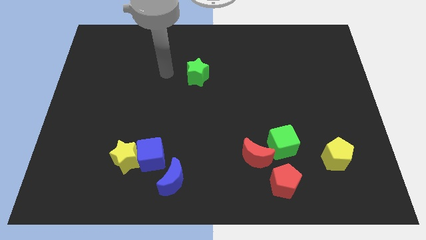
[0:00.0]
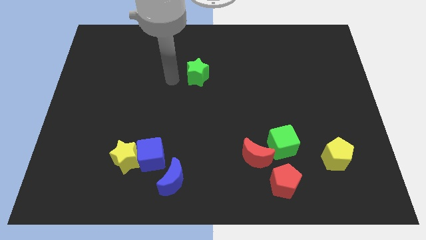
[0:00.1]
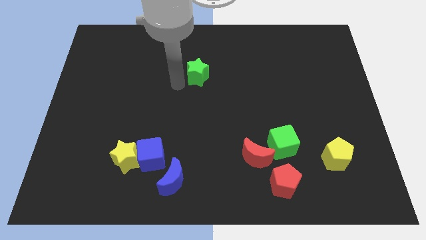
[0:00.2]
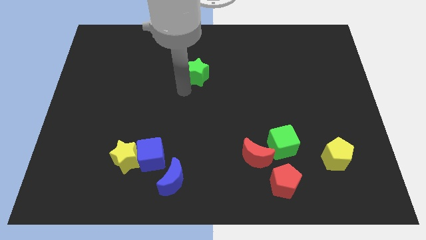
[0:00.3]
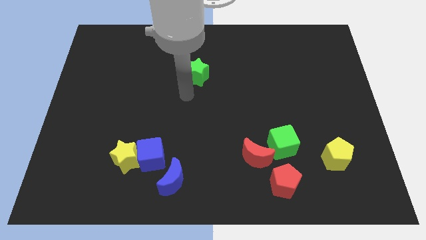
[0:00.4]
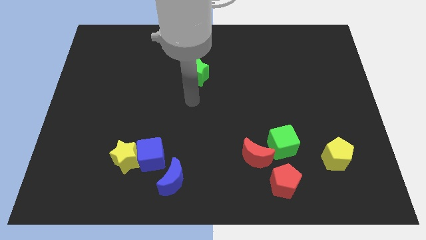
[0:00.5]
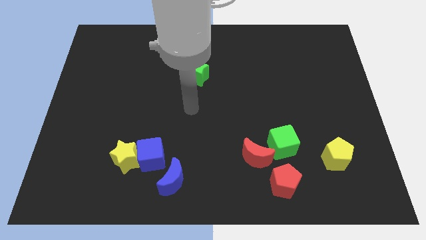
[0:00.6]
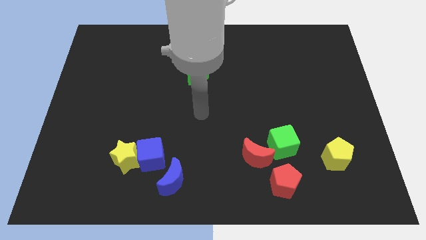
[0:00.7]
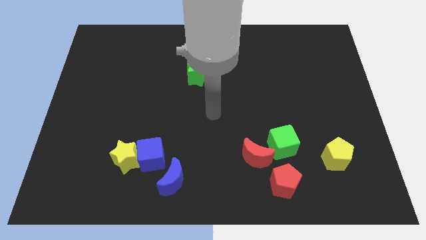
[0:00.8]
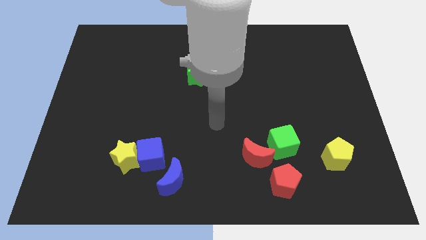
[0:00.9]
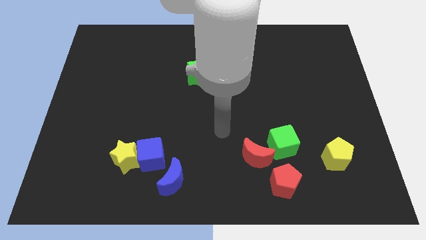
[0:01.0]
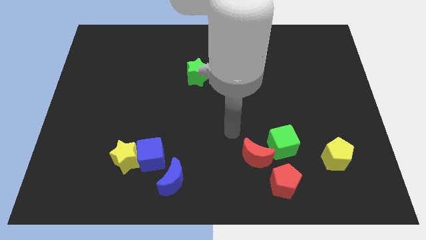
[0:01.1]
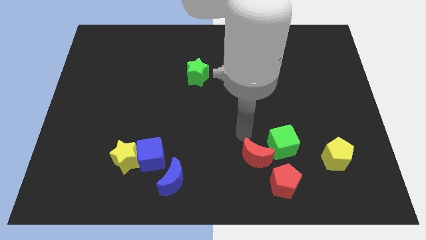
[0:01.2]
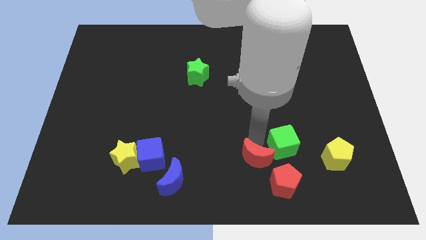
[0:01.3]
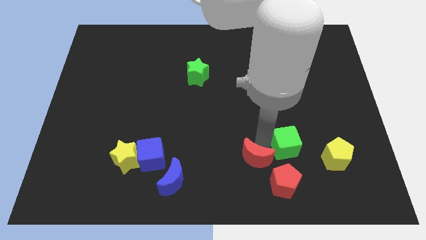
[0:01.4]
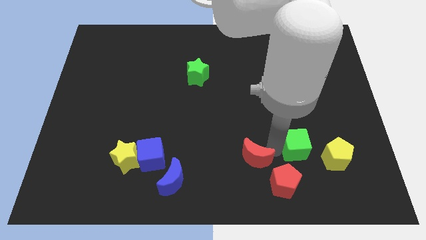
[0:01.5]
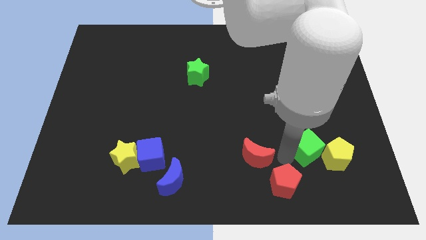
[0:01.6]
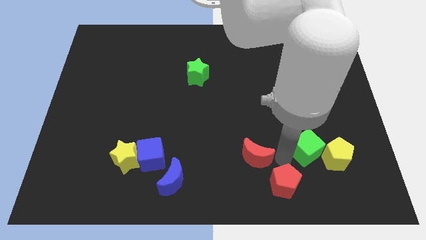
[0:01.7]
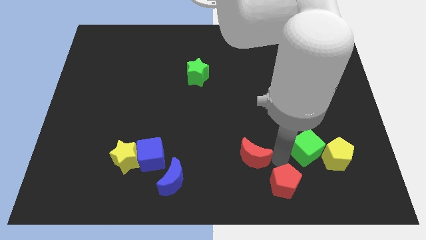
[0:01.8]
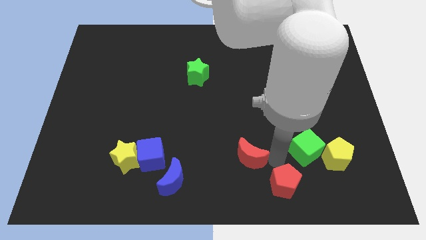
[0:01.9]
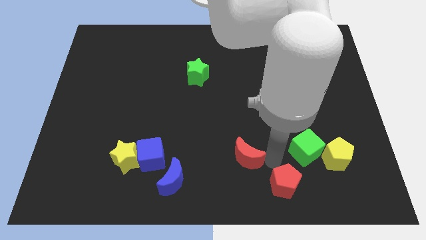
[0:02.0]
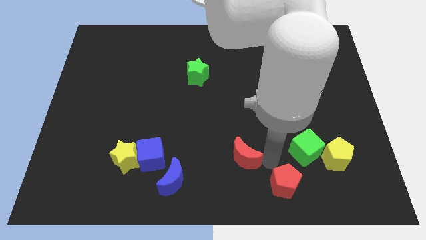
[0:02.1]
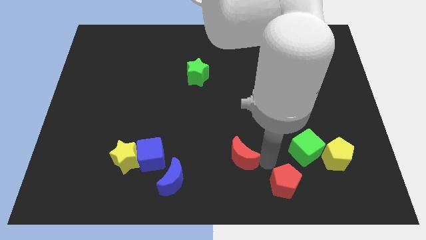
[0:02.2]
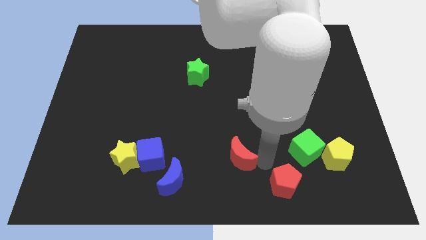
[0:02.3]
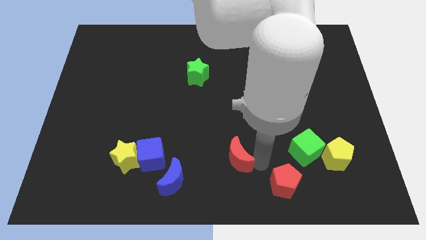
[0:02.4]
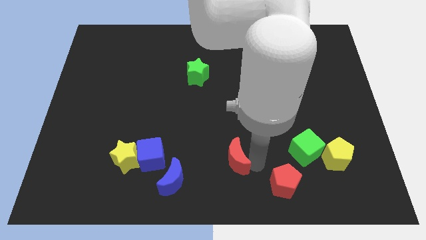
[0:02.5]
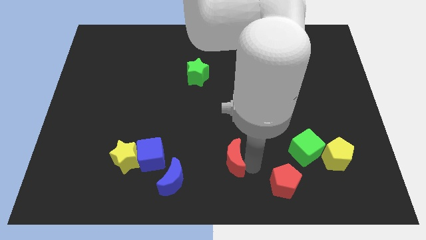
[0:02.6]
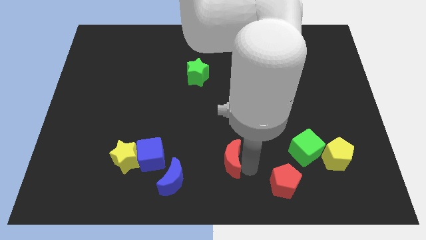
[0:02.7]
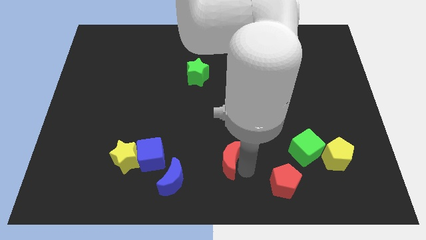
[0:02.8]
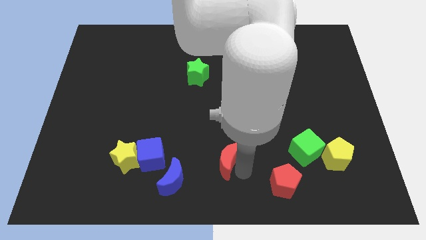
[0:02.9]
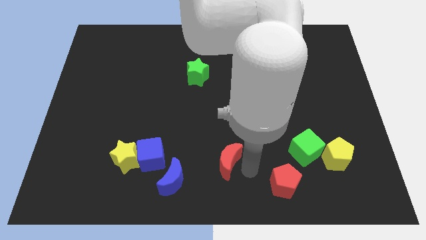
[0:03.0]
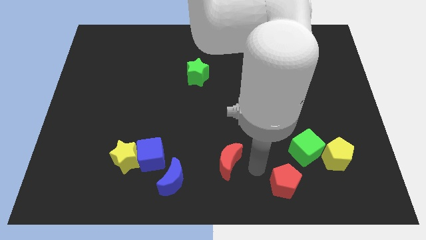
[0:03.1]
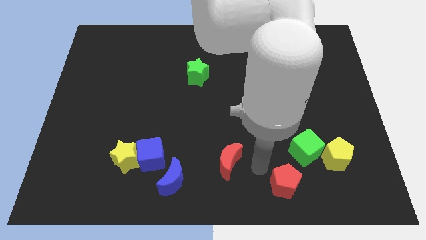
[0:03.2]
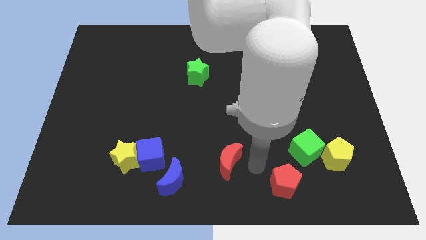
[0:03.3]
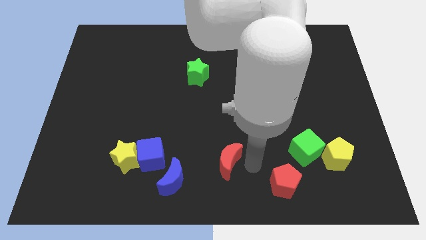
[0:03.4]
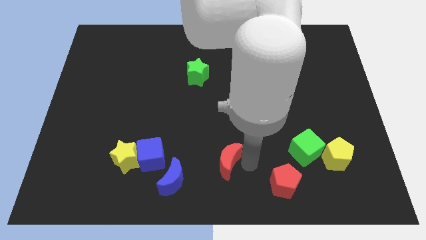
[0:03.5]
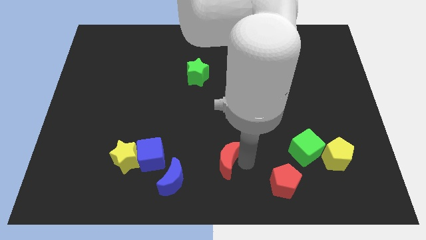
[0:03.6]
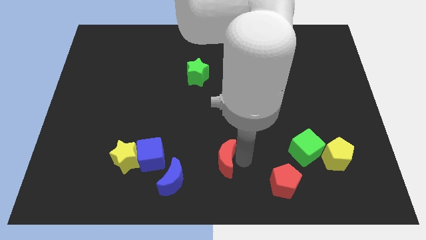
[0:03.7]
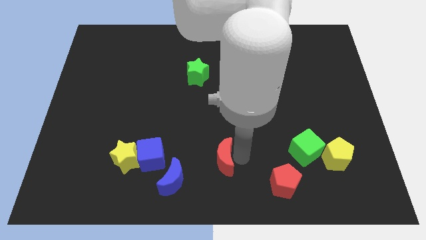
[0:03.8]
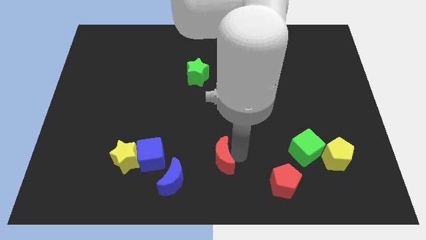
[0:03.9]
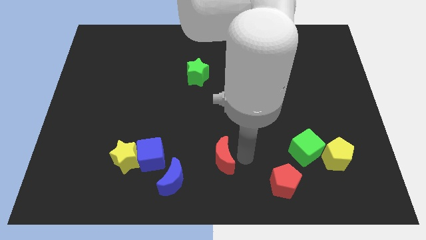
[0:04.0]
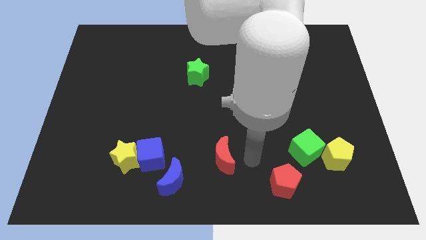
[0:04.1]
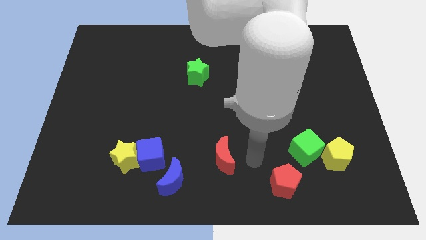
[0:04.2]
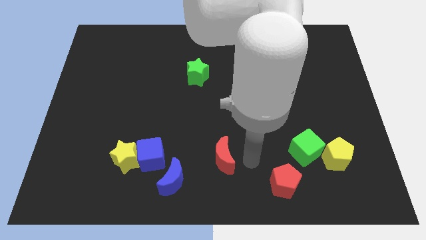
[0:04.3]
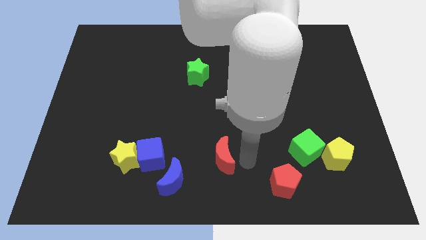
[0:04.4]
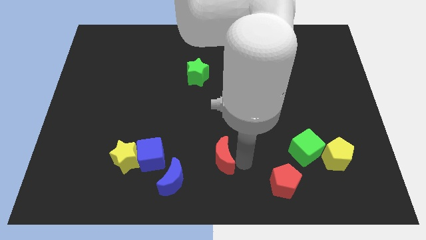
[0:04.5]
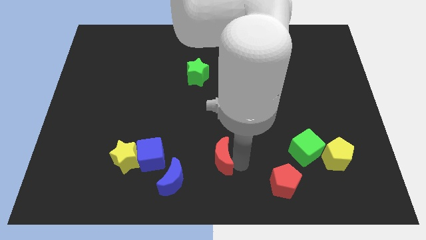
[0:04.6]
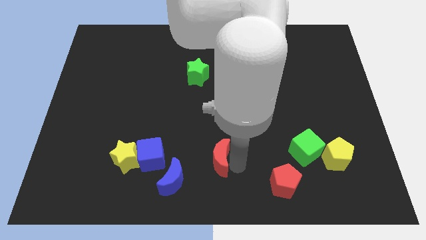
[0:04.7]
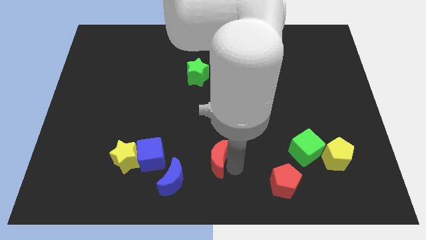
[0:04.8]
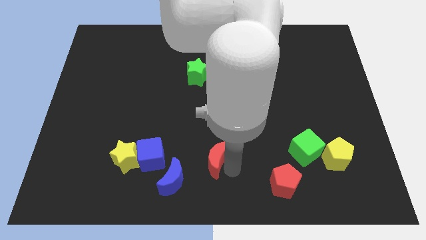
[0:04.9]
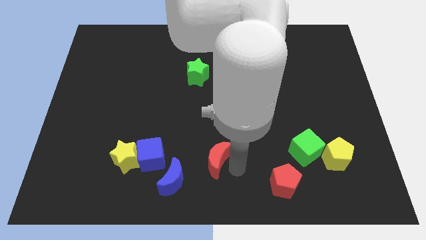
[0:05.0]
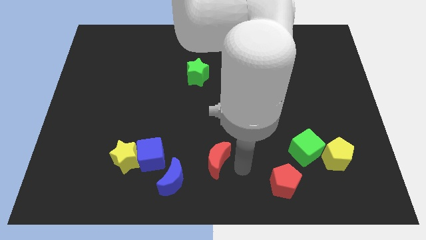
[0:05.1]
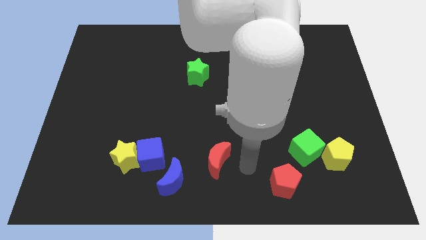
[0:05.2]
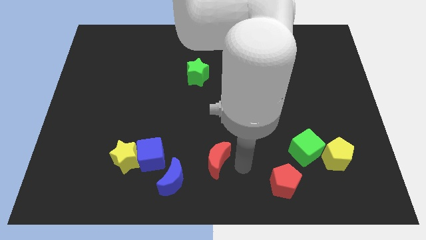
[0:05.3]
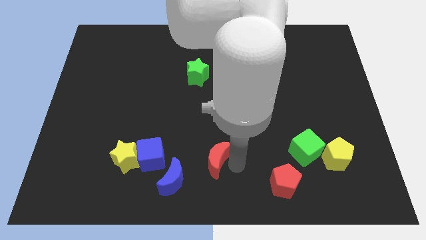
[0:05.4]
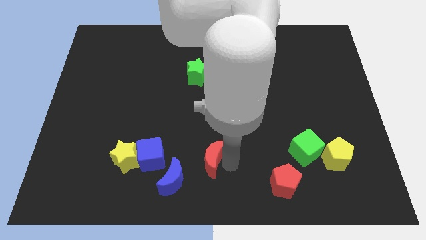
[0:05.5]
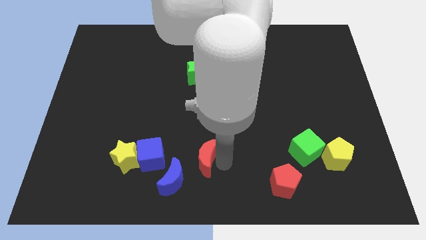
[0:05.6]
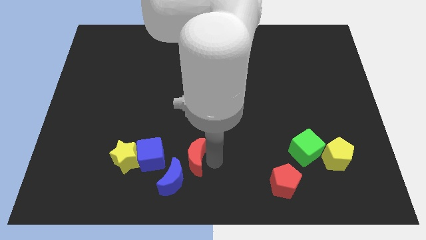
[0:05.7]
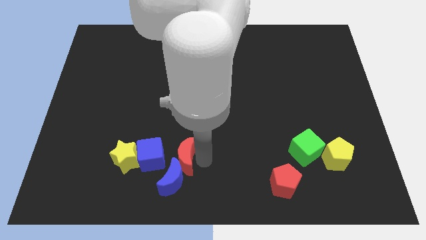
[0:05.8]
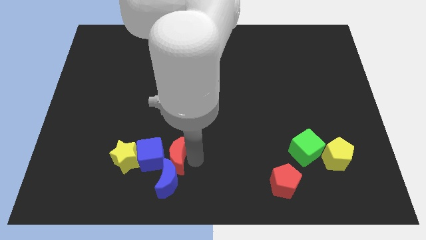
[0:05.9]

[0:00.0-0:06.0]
push the red moon to the blue cube

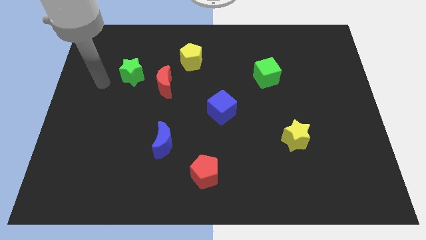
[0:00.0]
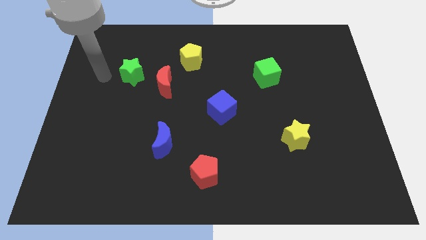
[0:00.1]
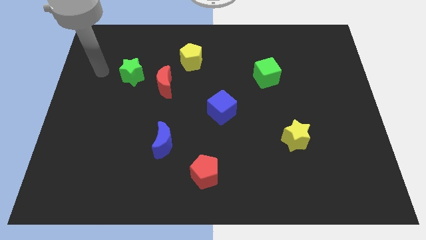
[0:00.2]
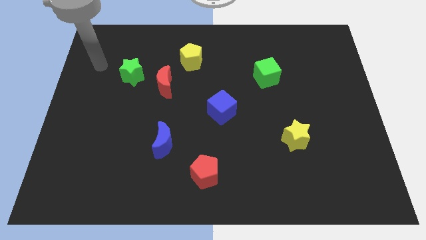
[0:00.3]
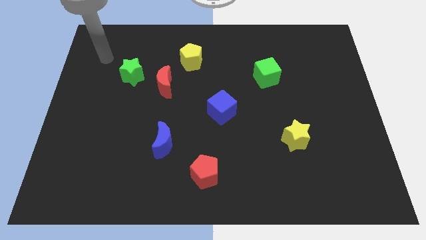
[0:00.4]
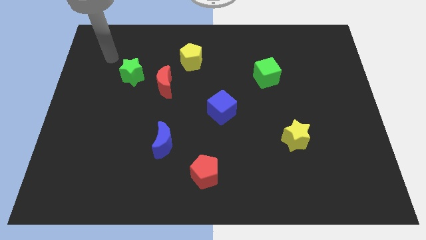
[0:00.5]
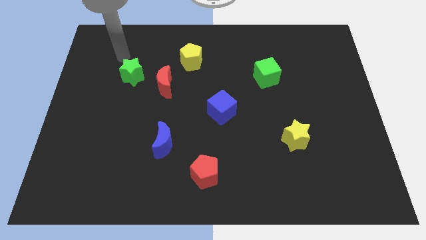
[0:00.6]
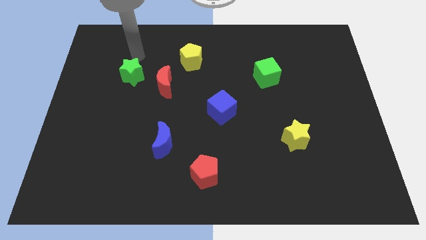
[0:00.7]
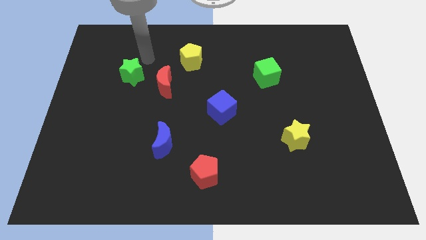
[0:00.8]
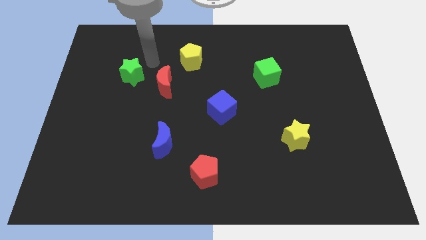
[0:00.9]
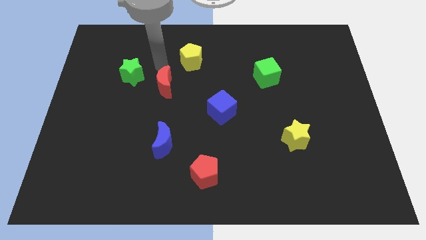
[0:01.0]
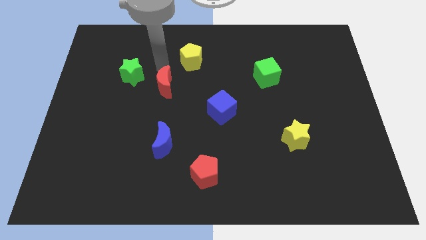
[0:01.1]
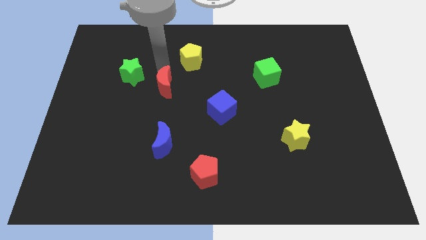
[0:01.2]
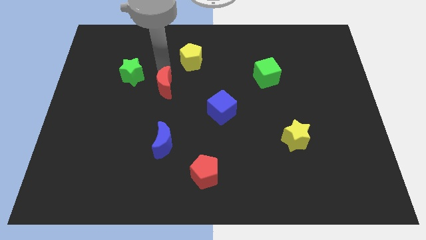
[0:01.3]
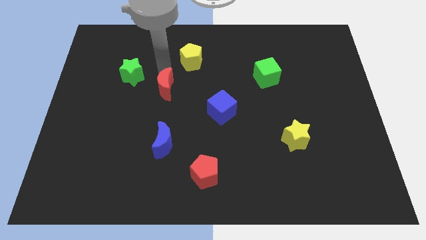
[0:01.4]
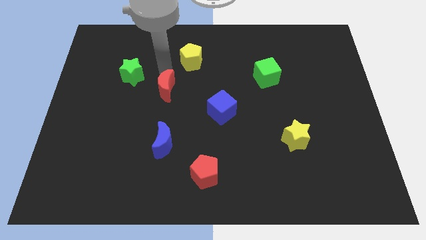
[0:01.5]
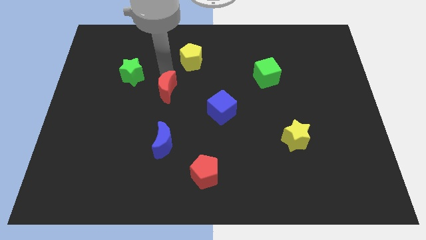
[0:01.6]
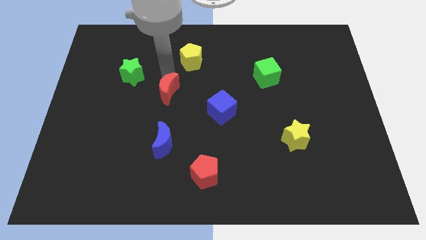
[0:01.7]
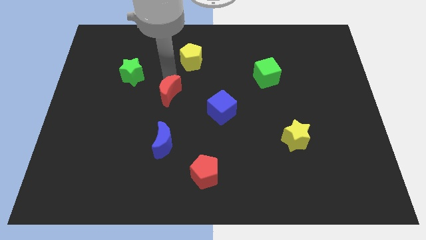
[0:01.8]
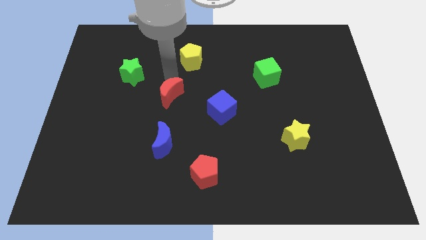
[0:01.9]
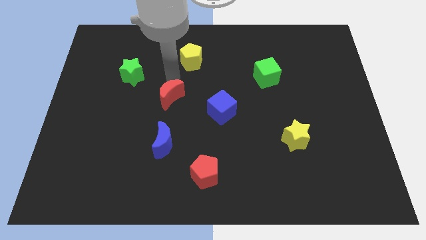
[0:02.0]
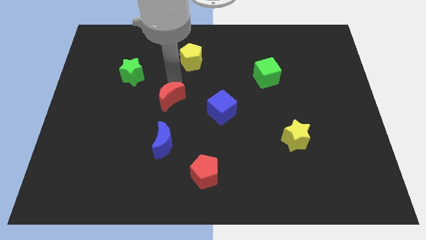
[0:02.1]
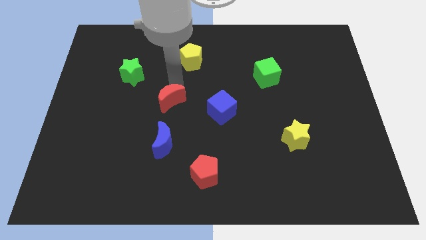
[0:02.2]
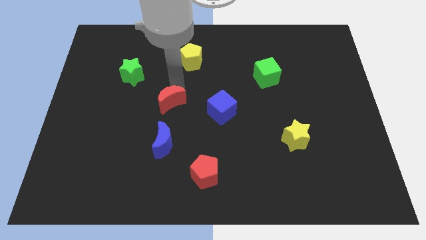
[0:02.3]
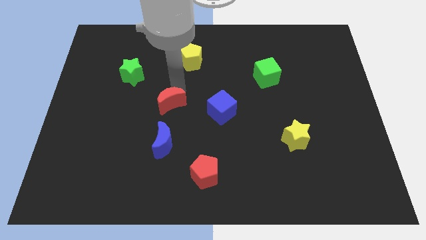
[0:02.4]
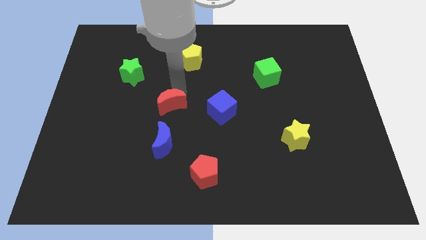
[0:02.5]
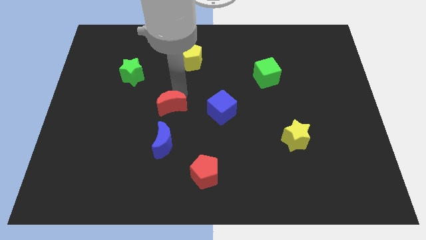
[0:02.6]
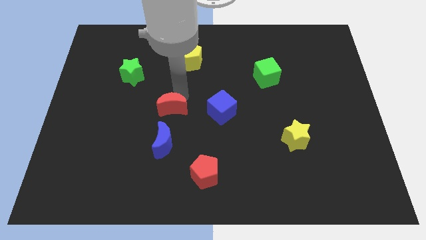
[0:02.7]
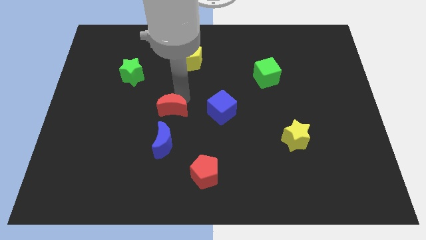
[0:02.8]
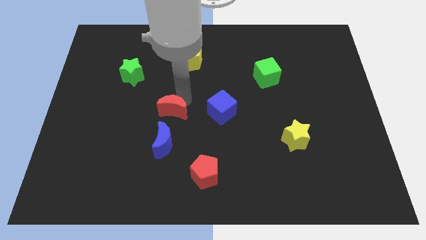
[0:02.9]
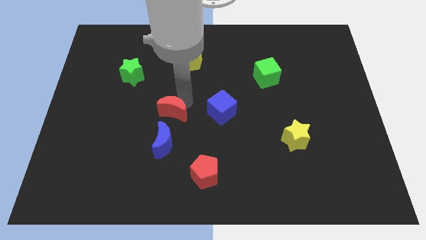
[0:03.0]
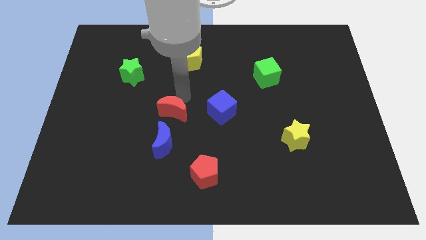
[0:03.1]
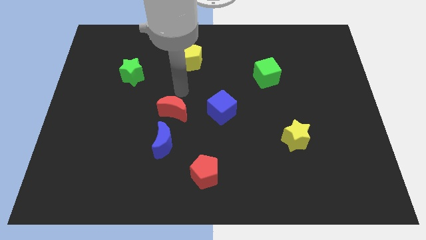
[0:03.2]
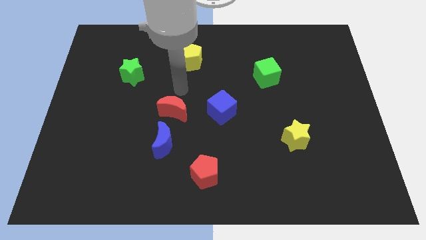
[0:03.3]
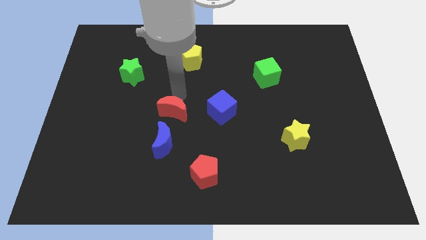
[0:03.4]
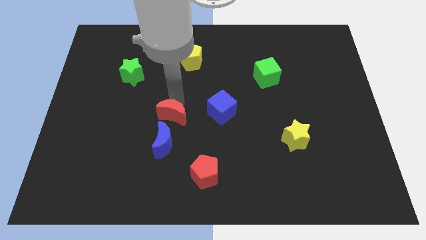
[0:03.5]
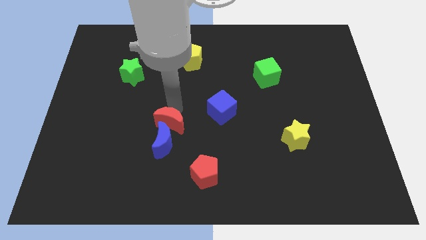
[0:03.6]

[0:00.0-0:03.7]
move the red moon close to the blue moon
